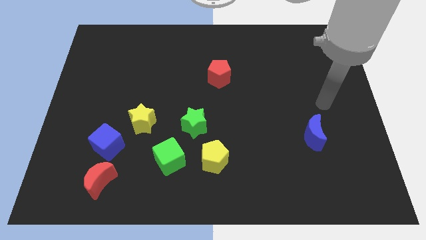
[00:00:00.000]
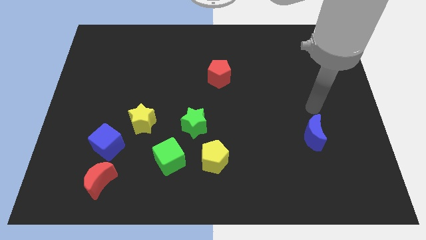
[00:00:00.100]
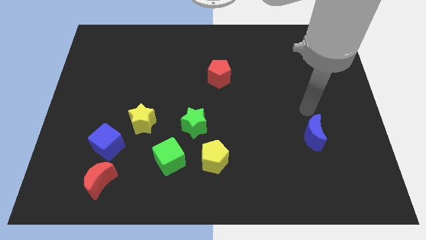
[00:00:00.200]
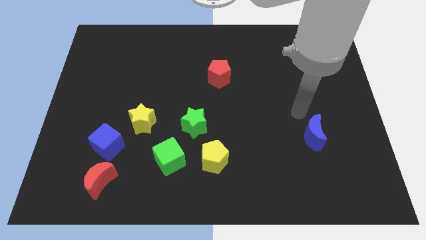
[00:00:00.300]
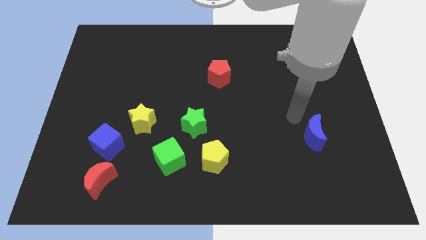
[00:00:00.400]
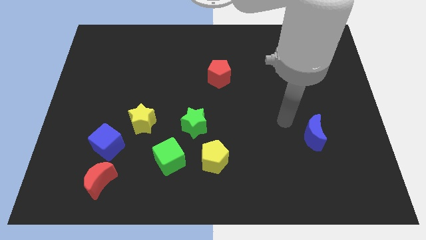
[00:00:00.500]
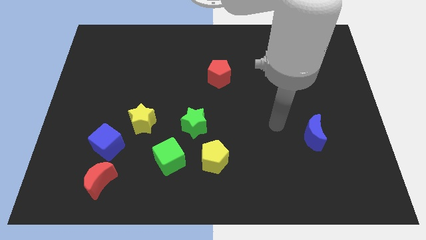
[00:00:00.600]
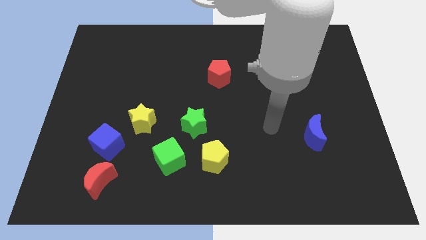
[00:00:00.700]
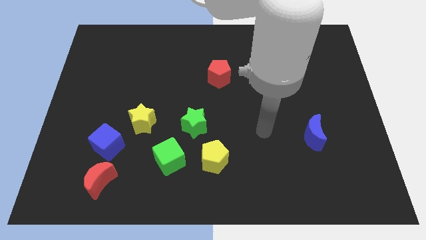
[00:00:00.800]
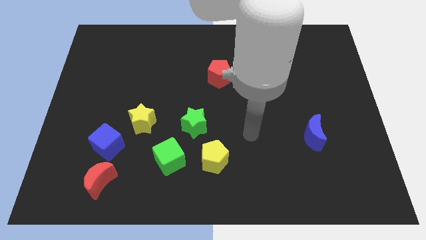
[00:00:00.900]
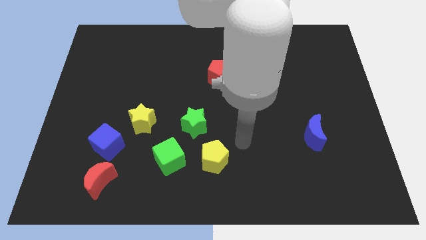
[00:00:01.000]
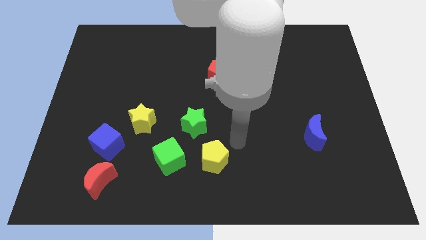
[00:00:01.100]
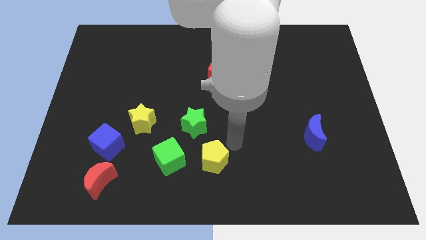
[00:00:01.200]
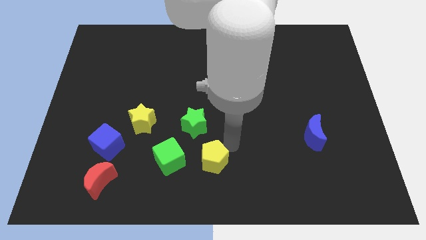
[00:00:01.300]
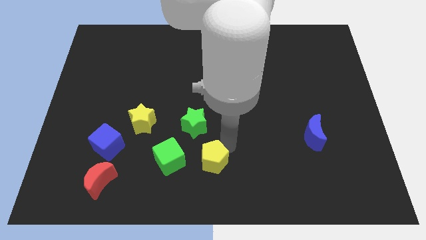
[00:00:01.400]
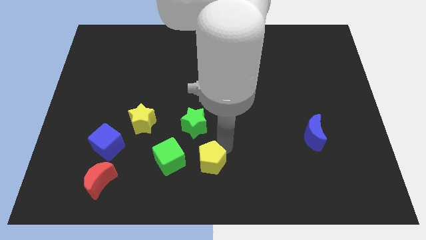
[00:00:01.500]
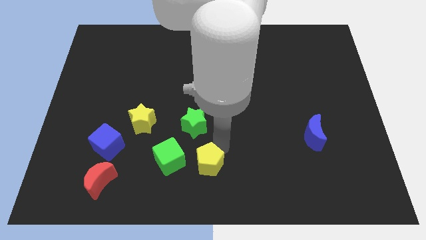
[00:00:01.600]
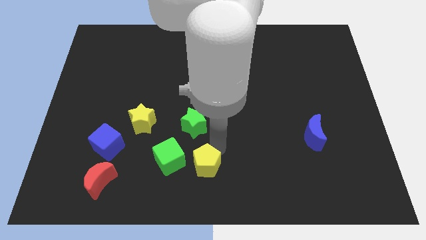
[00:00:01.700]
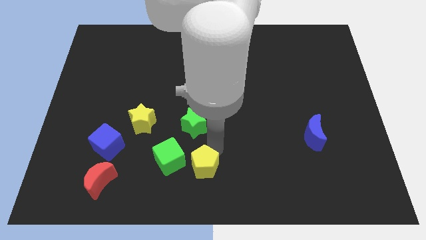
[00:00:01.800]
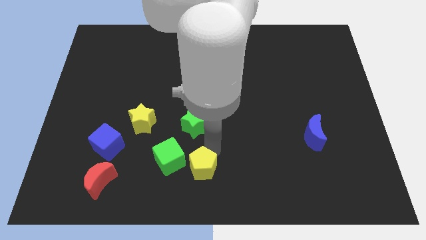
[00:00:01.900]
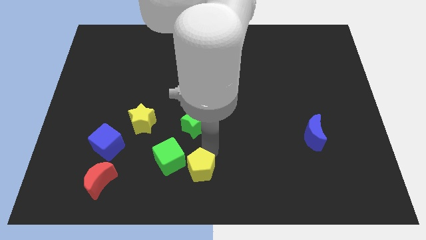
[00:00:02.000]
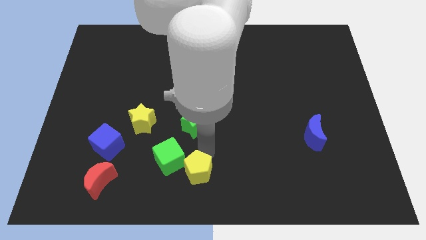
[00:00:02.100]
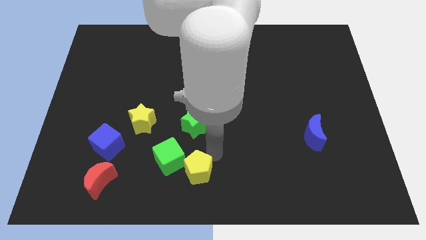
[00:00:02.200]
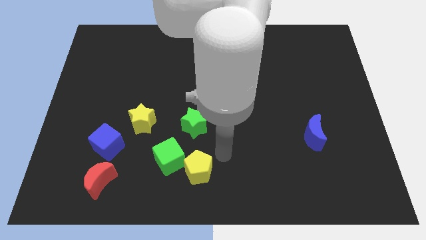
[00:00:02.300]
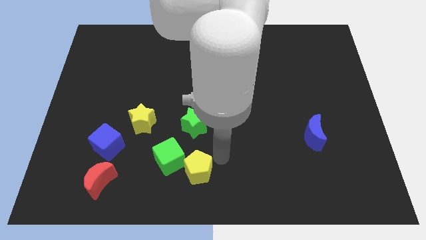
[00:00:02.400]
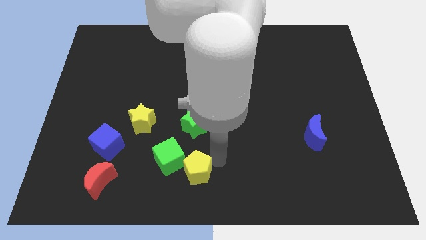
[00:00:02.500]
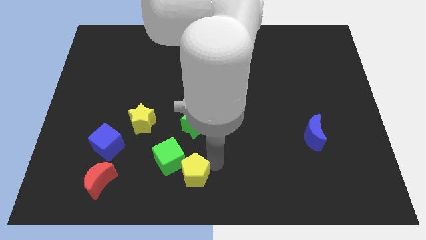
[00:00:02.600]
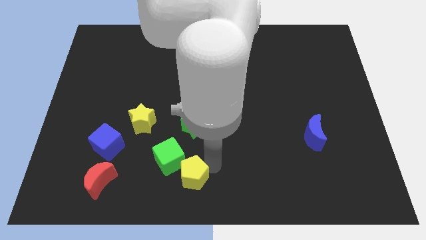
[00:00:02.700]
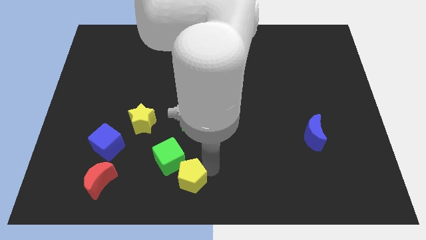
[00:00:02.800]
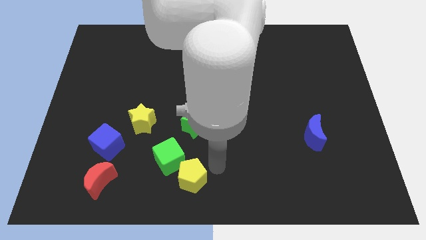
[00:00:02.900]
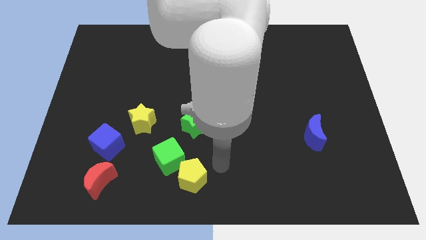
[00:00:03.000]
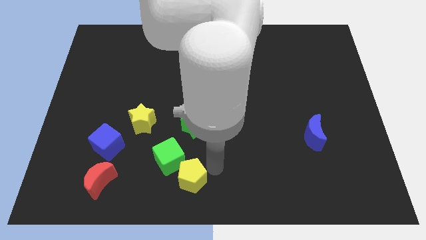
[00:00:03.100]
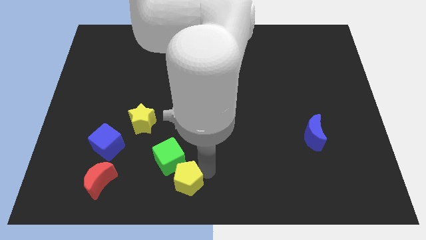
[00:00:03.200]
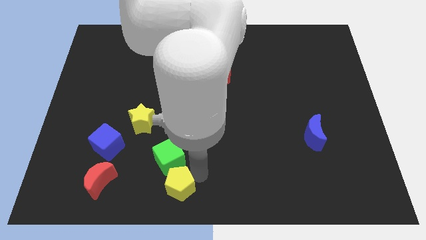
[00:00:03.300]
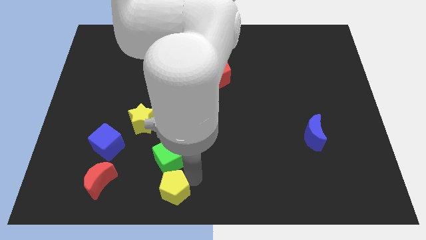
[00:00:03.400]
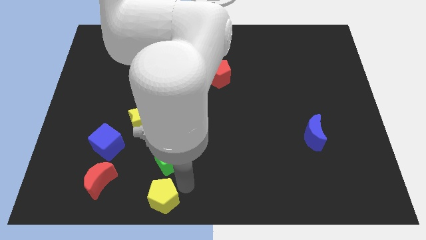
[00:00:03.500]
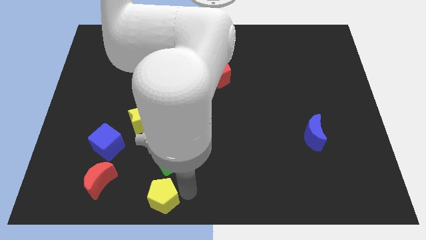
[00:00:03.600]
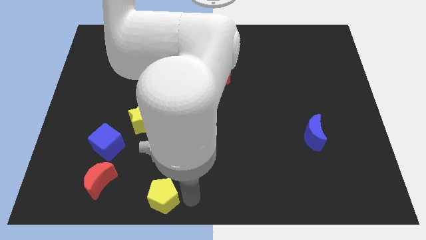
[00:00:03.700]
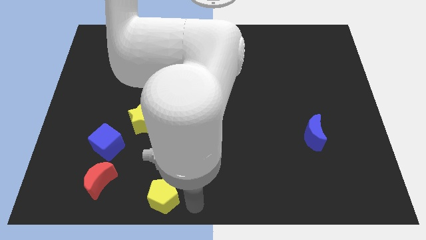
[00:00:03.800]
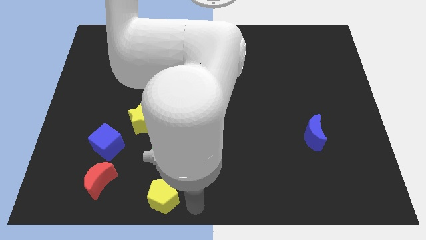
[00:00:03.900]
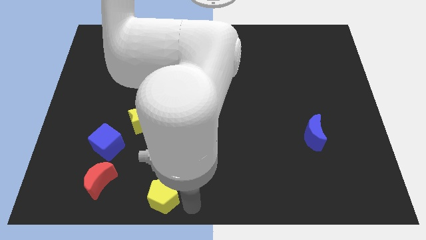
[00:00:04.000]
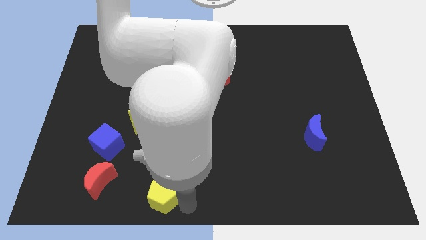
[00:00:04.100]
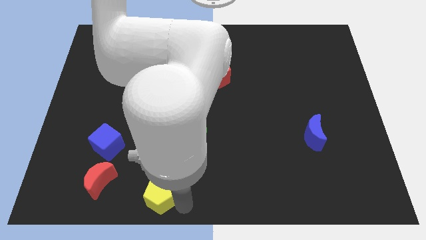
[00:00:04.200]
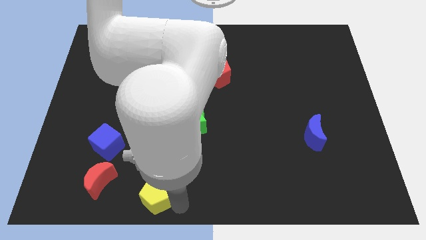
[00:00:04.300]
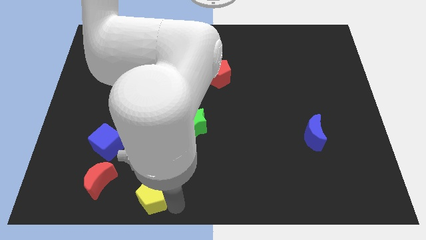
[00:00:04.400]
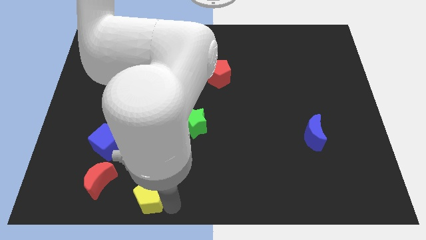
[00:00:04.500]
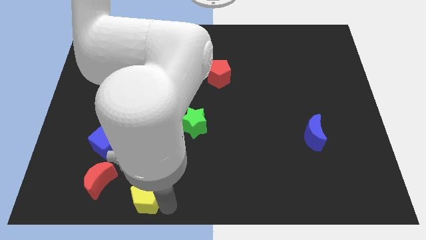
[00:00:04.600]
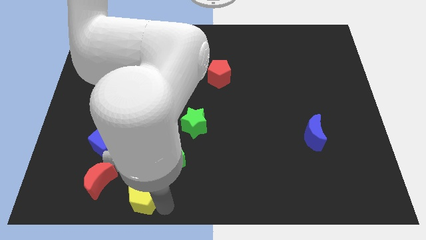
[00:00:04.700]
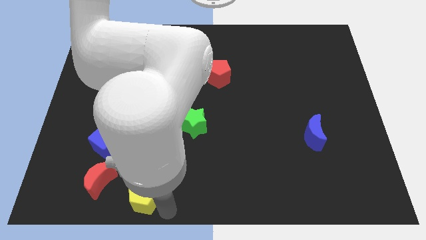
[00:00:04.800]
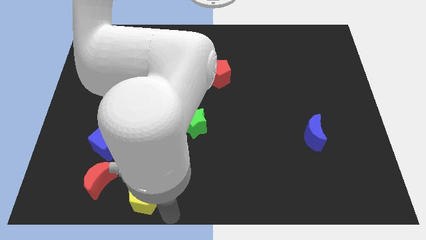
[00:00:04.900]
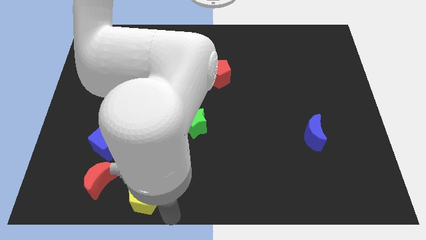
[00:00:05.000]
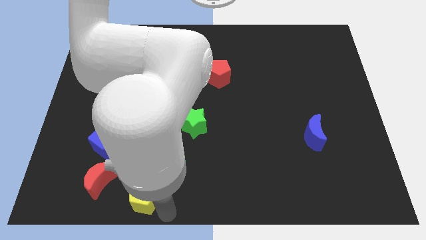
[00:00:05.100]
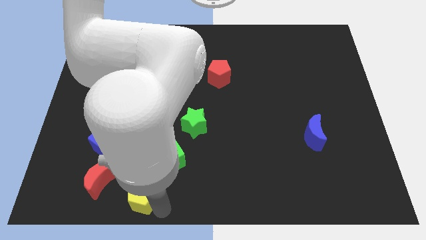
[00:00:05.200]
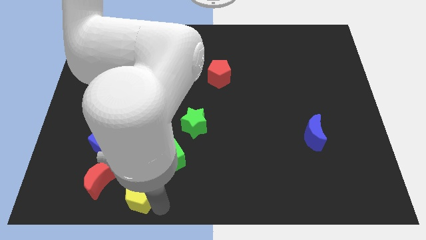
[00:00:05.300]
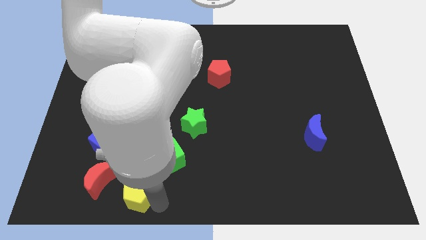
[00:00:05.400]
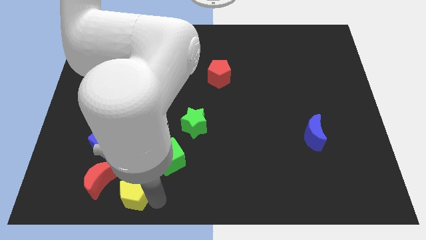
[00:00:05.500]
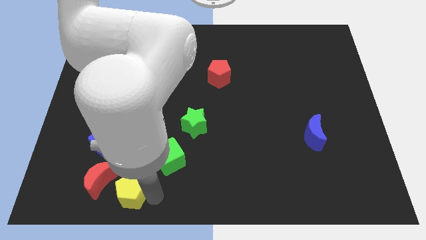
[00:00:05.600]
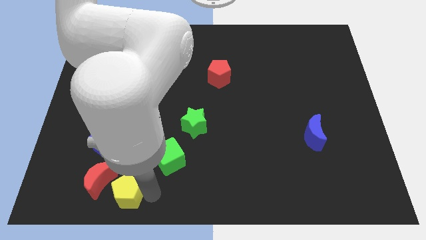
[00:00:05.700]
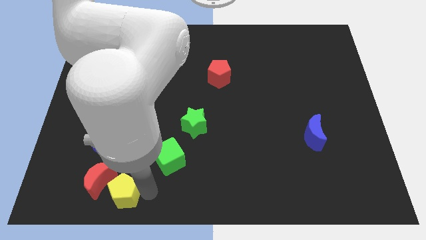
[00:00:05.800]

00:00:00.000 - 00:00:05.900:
slide the yellow pentagon close to the red moon

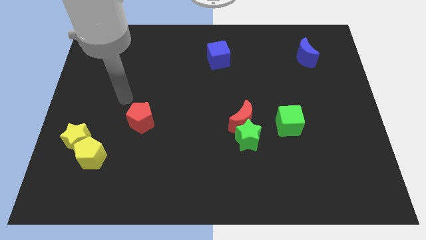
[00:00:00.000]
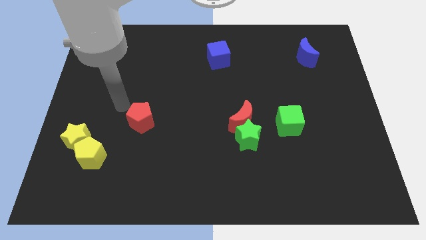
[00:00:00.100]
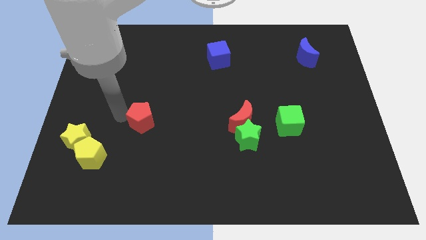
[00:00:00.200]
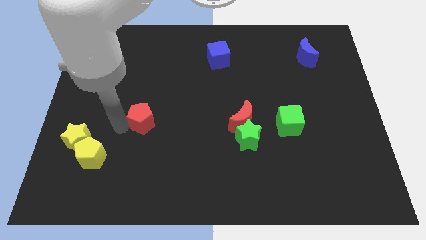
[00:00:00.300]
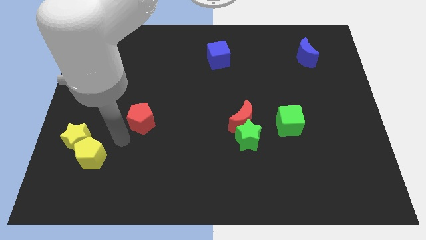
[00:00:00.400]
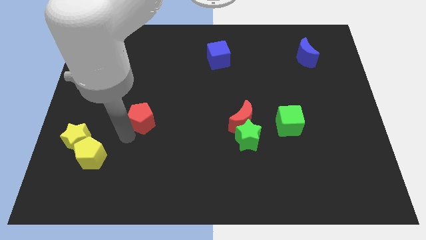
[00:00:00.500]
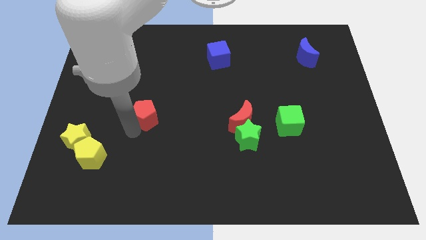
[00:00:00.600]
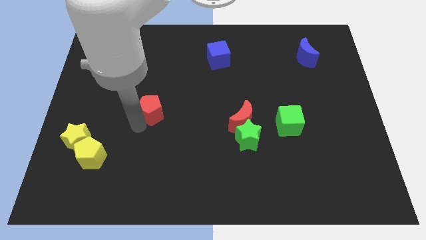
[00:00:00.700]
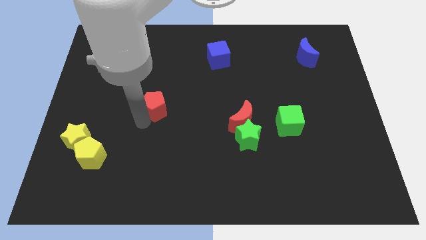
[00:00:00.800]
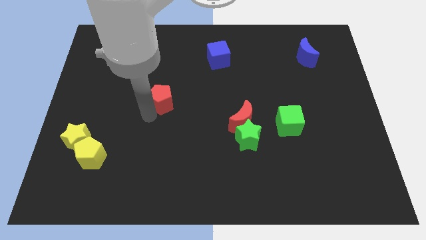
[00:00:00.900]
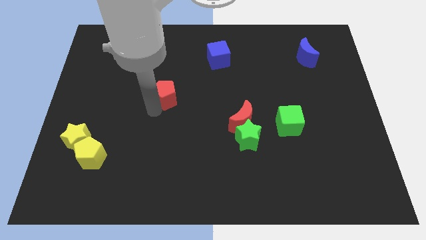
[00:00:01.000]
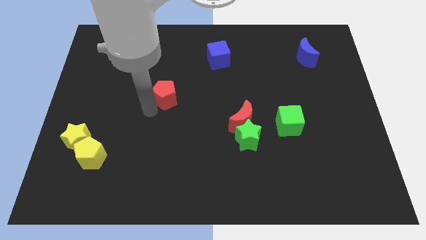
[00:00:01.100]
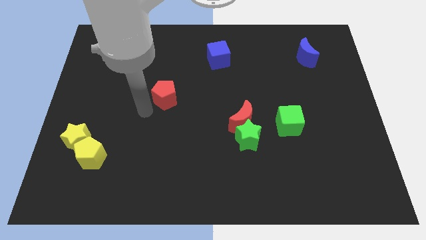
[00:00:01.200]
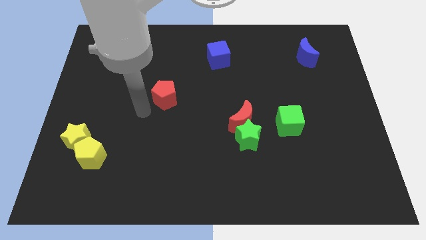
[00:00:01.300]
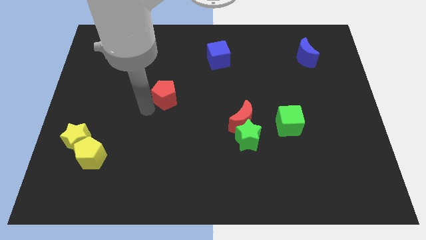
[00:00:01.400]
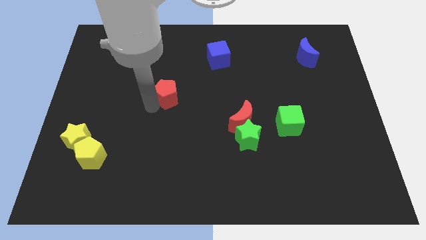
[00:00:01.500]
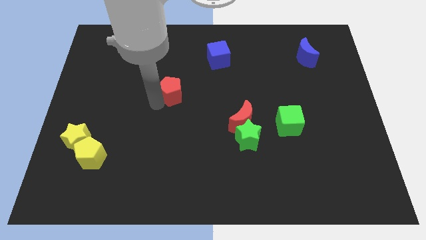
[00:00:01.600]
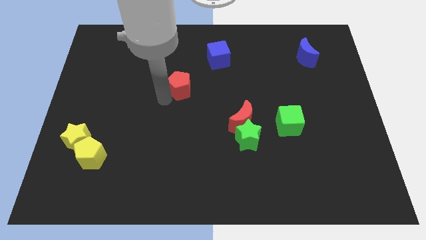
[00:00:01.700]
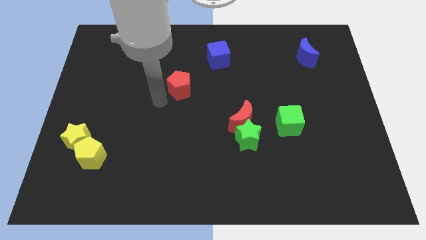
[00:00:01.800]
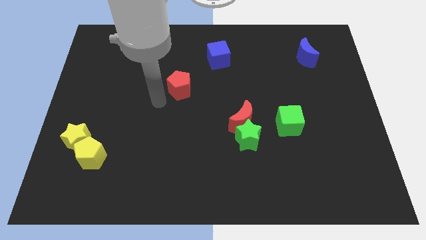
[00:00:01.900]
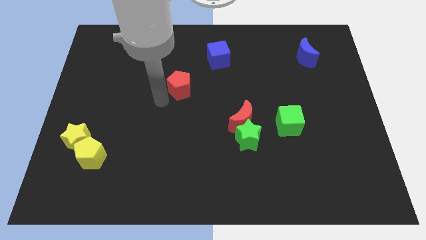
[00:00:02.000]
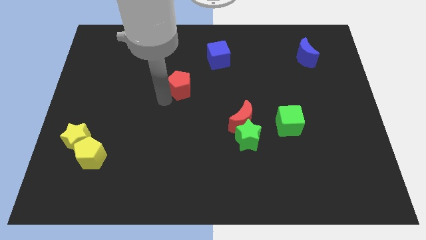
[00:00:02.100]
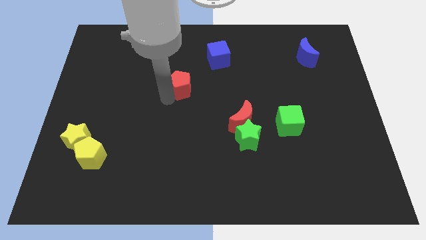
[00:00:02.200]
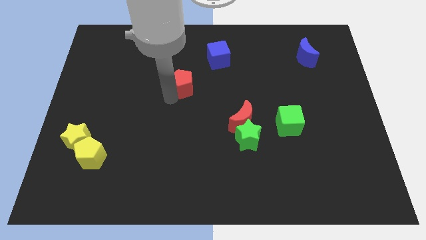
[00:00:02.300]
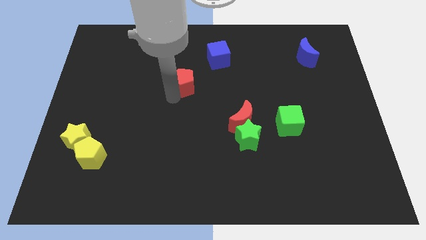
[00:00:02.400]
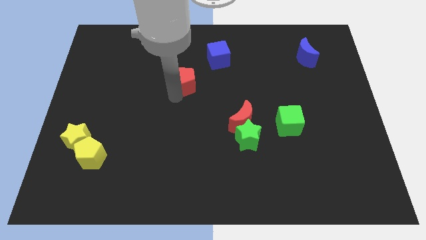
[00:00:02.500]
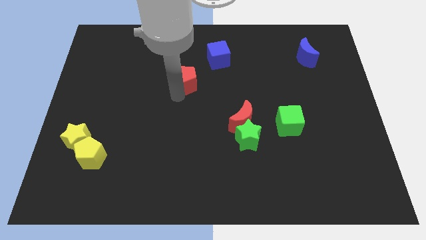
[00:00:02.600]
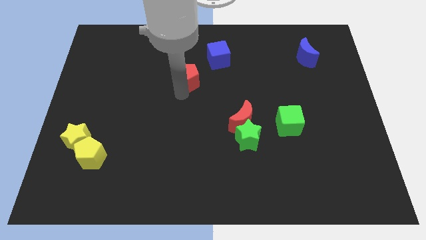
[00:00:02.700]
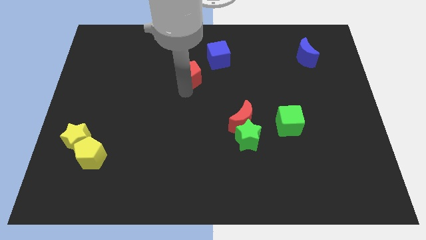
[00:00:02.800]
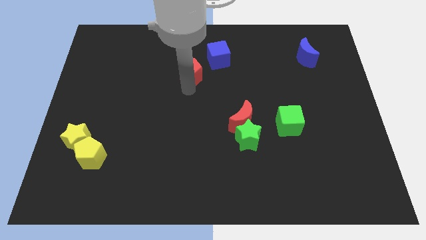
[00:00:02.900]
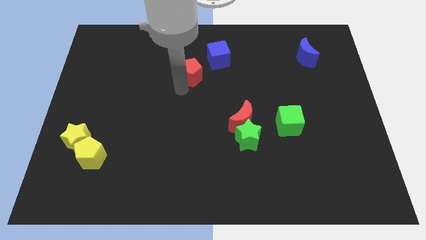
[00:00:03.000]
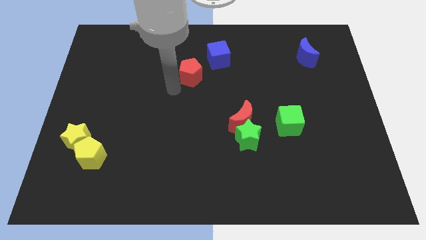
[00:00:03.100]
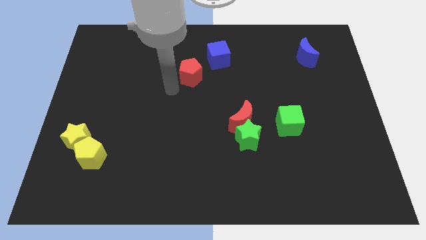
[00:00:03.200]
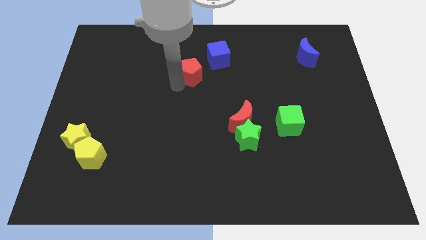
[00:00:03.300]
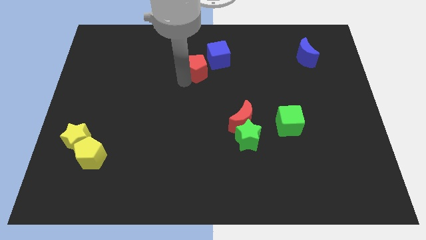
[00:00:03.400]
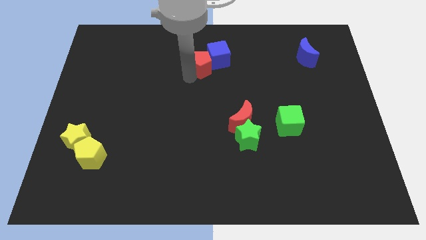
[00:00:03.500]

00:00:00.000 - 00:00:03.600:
push the red pentagon next to the blue cube
